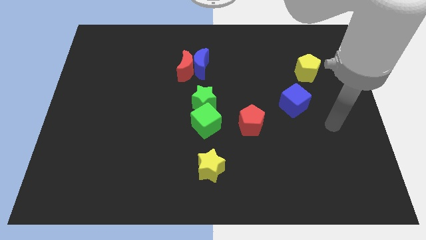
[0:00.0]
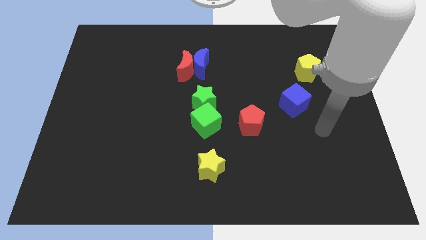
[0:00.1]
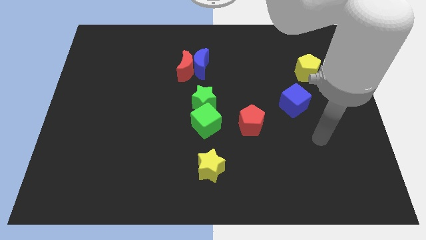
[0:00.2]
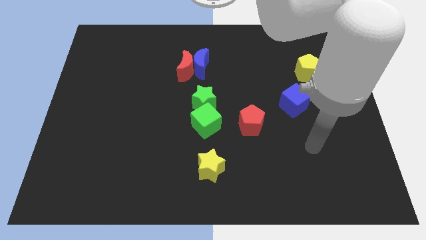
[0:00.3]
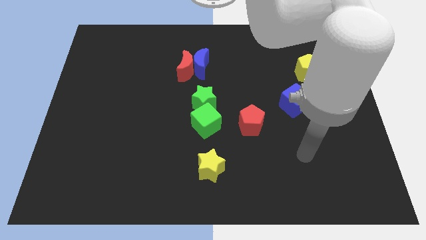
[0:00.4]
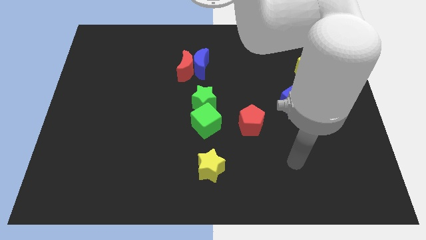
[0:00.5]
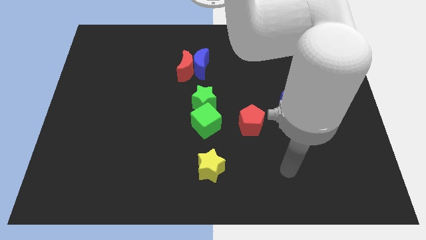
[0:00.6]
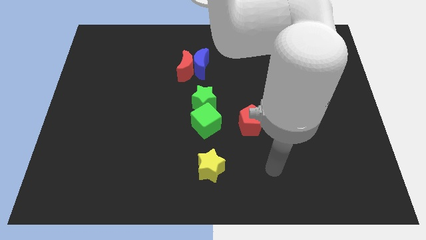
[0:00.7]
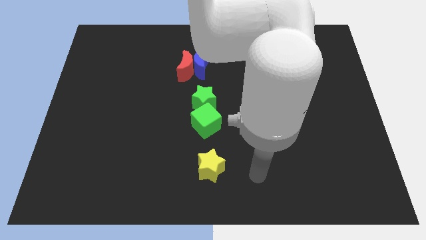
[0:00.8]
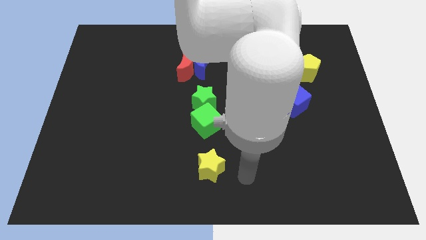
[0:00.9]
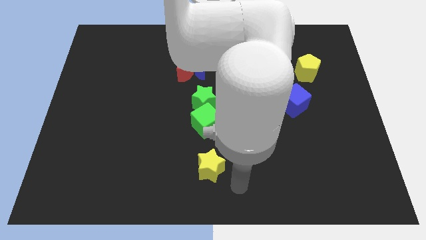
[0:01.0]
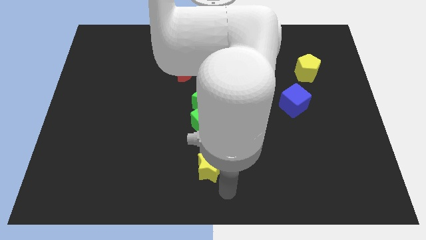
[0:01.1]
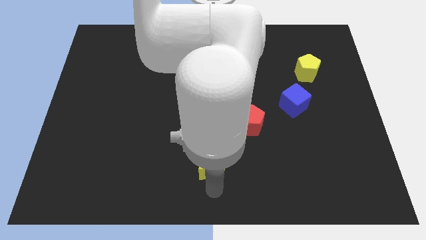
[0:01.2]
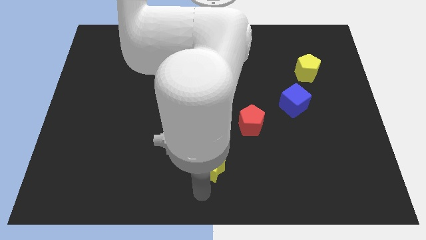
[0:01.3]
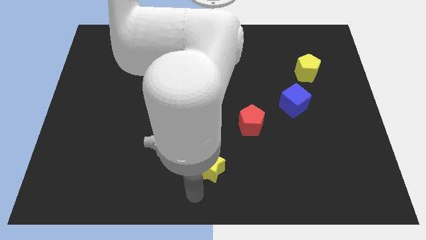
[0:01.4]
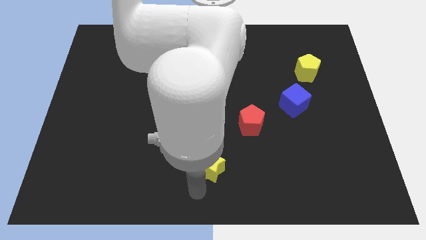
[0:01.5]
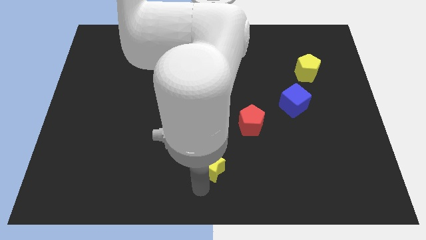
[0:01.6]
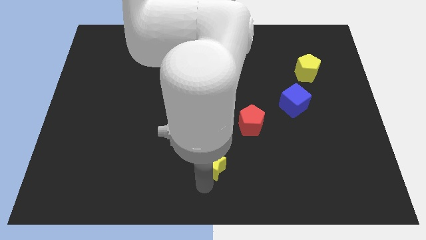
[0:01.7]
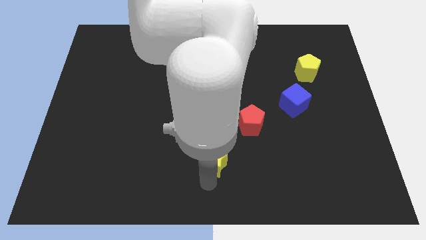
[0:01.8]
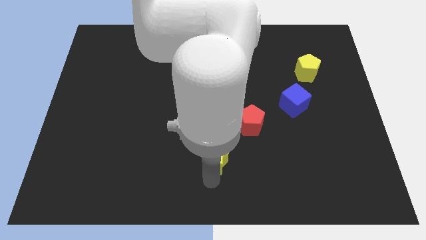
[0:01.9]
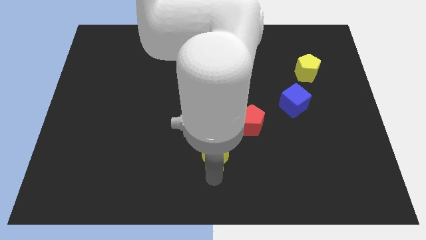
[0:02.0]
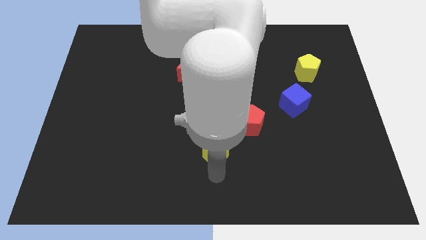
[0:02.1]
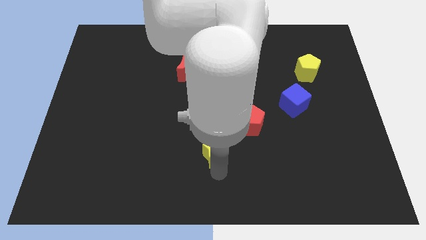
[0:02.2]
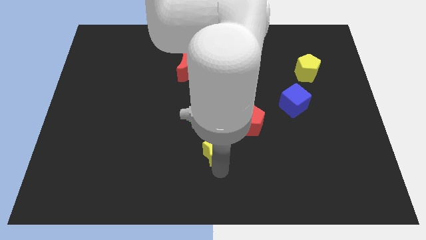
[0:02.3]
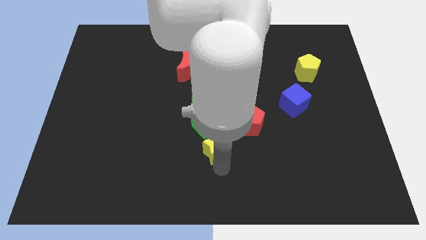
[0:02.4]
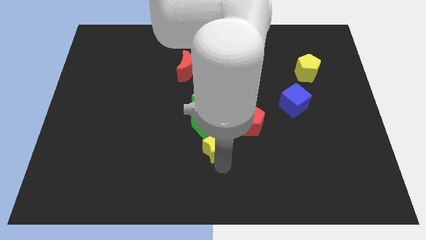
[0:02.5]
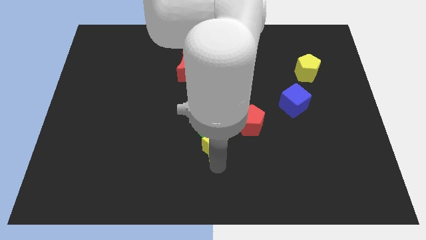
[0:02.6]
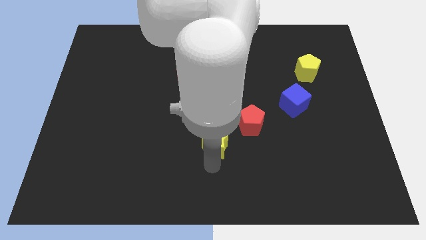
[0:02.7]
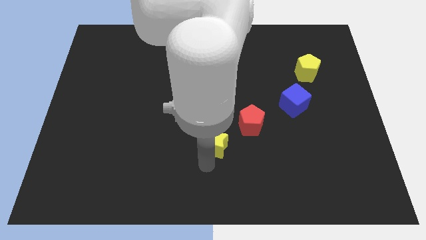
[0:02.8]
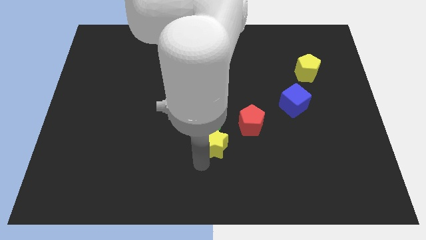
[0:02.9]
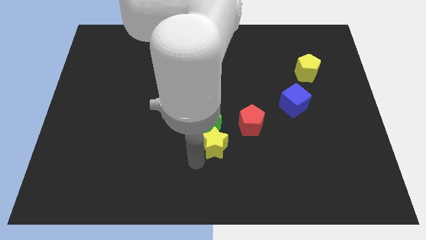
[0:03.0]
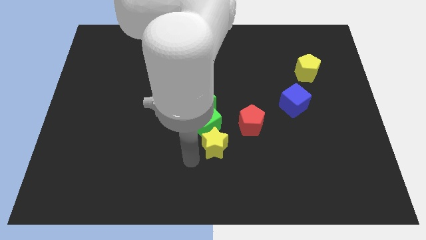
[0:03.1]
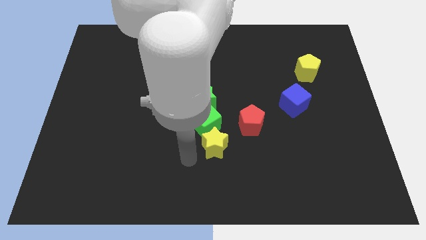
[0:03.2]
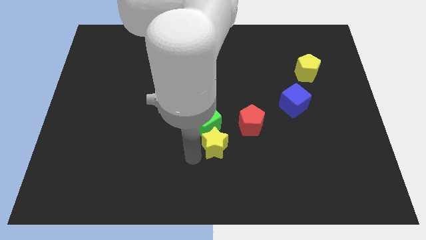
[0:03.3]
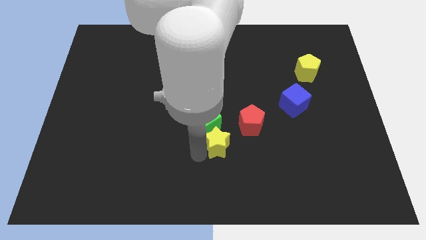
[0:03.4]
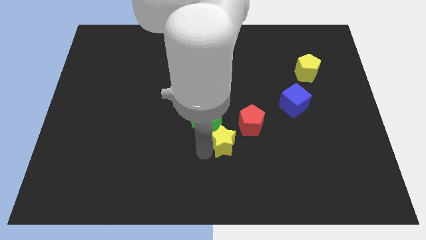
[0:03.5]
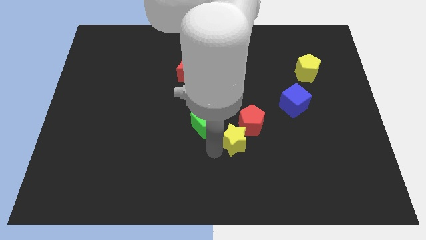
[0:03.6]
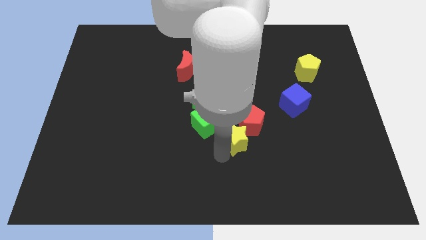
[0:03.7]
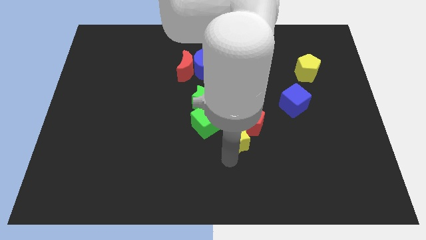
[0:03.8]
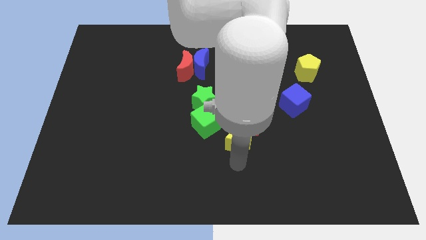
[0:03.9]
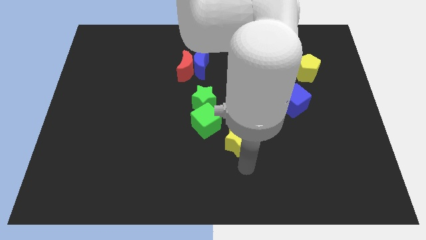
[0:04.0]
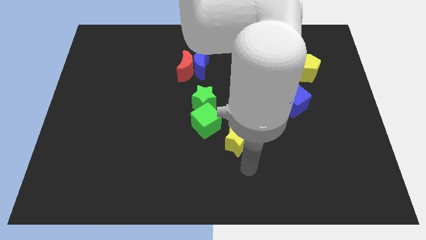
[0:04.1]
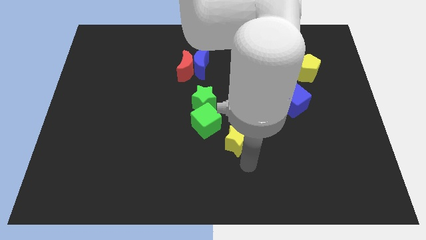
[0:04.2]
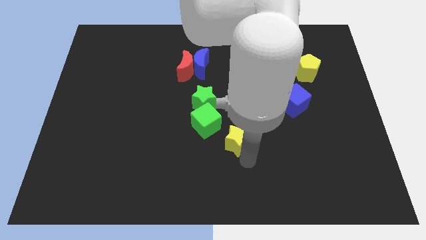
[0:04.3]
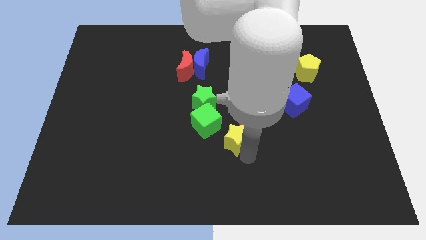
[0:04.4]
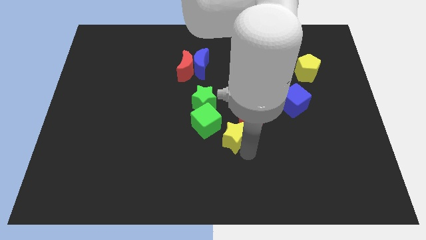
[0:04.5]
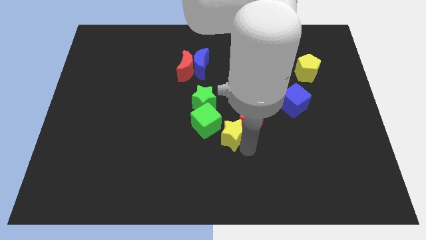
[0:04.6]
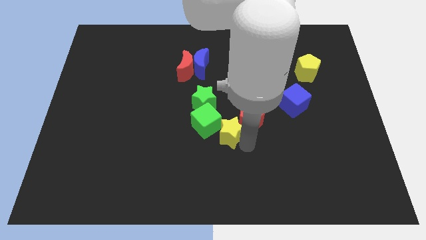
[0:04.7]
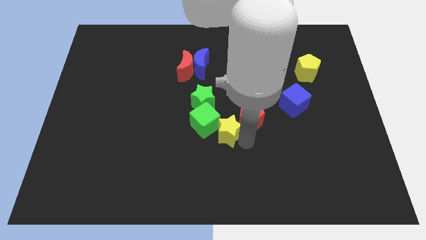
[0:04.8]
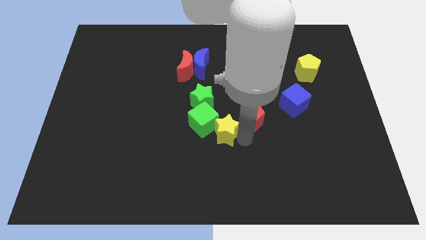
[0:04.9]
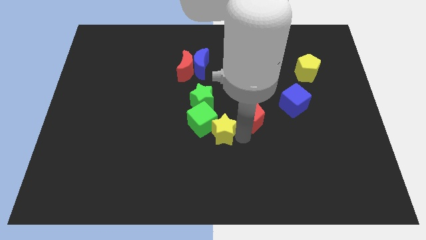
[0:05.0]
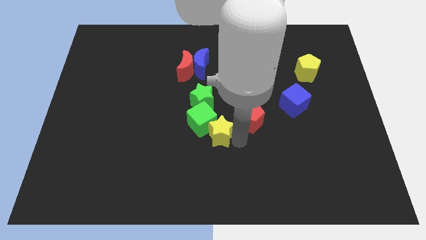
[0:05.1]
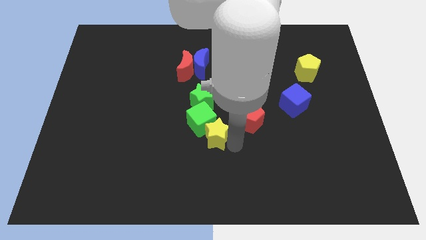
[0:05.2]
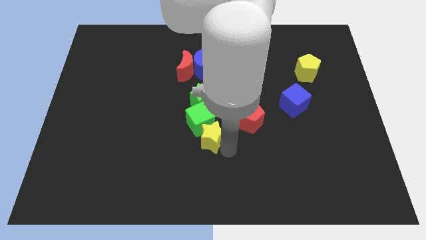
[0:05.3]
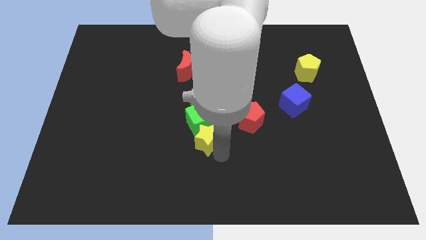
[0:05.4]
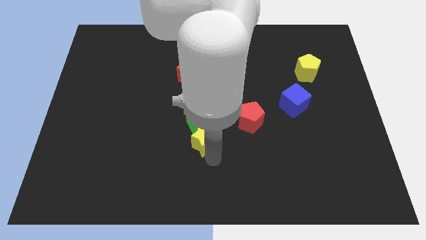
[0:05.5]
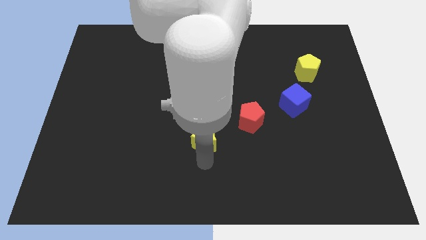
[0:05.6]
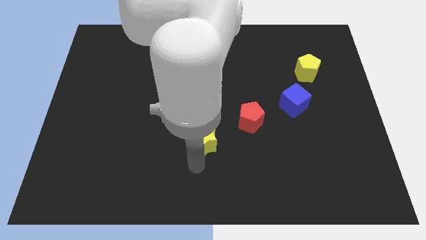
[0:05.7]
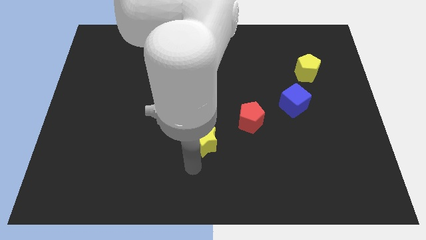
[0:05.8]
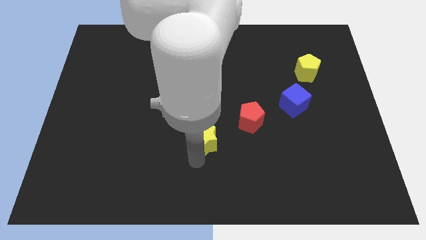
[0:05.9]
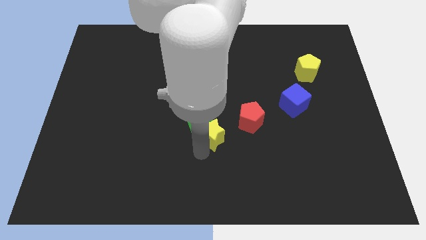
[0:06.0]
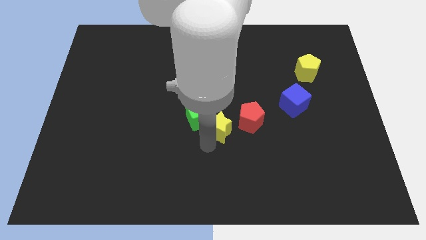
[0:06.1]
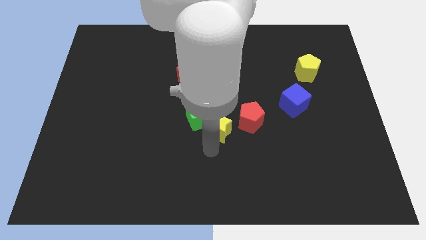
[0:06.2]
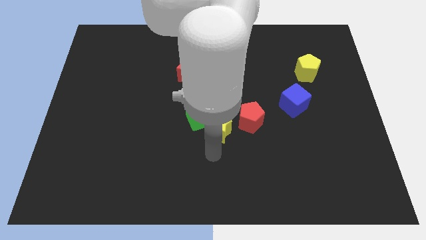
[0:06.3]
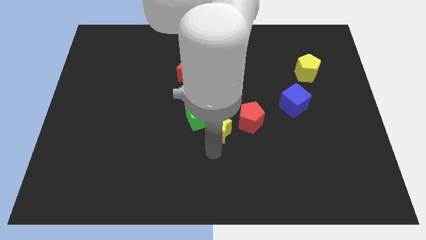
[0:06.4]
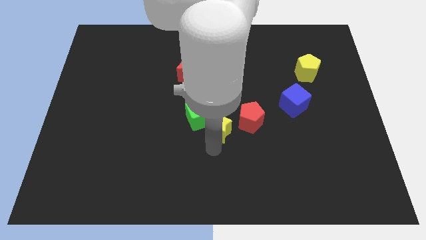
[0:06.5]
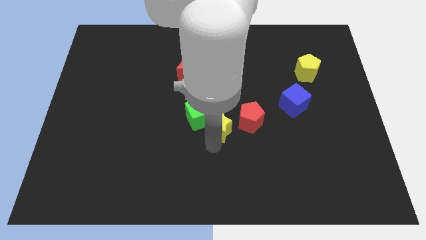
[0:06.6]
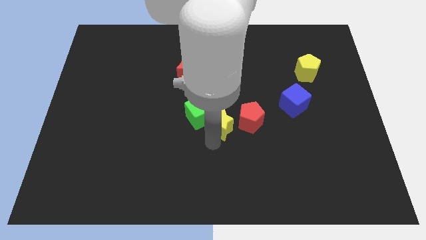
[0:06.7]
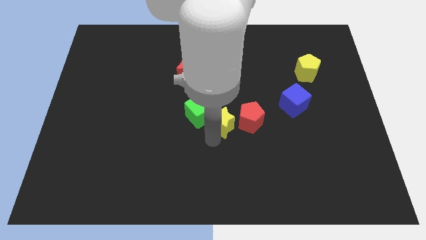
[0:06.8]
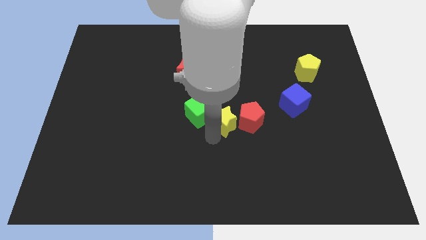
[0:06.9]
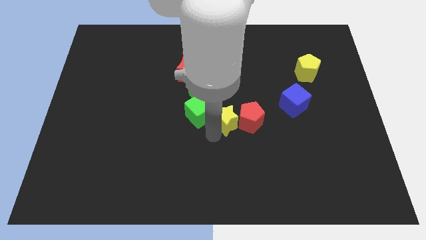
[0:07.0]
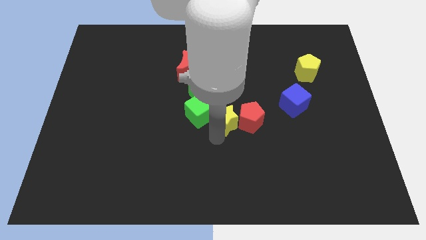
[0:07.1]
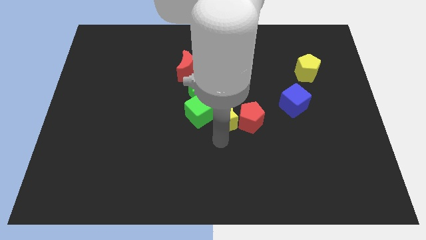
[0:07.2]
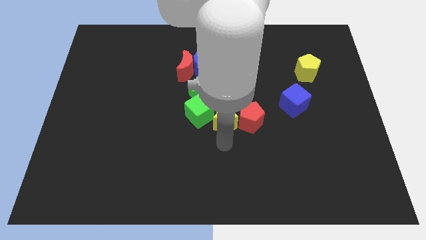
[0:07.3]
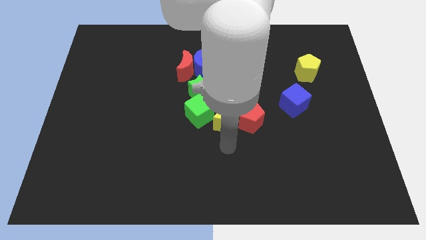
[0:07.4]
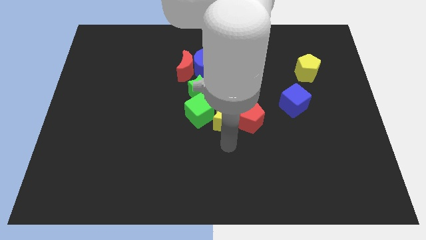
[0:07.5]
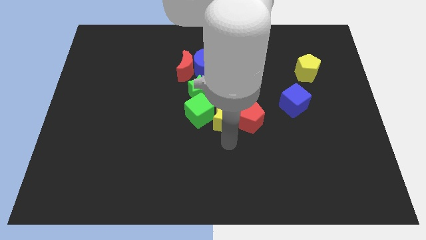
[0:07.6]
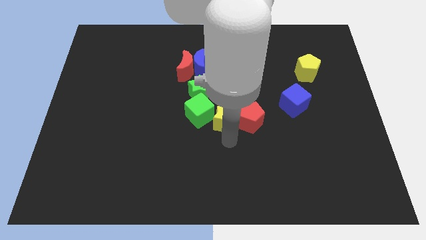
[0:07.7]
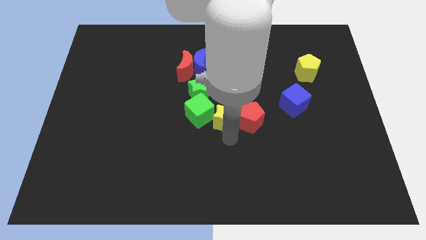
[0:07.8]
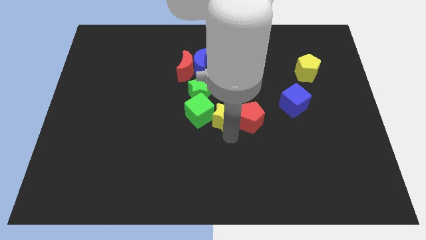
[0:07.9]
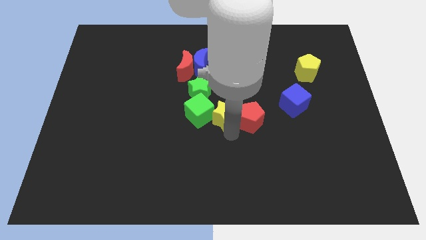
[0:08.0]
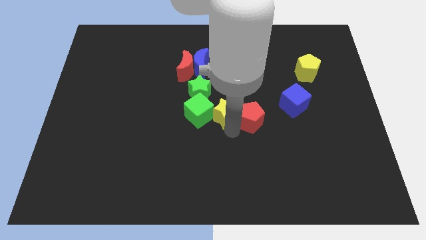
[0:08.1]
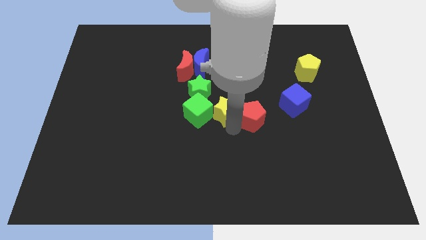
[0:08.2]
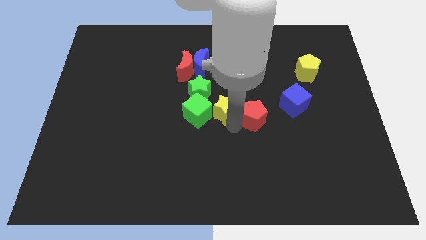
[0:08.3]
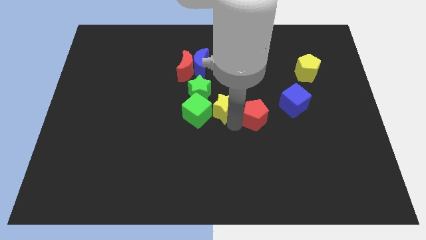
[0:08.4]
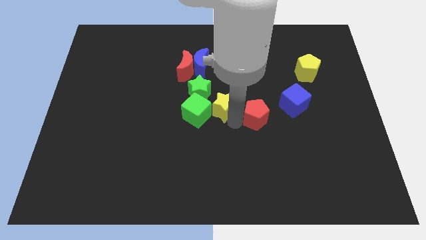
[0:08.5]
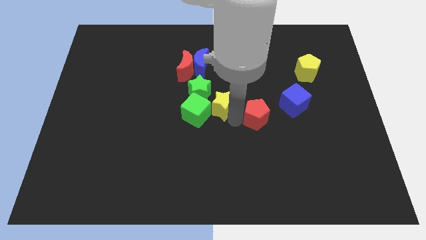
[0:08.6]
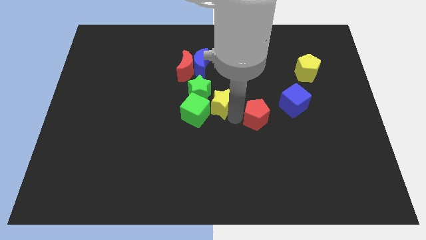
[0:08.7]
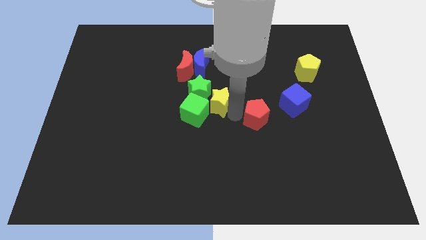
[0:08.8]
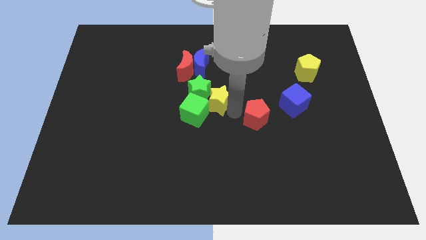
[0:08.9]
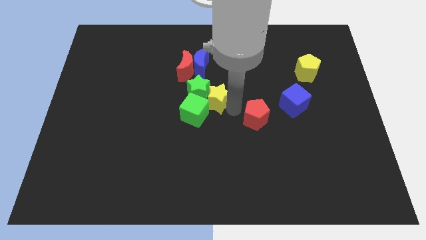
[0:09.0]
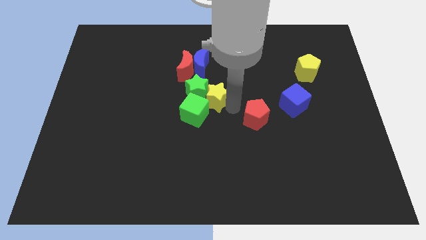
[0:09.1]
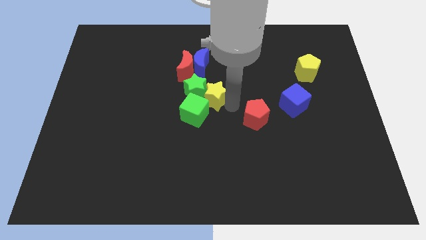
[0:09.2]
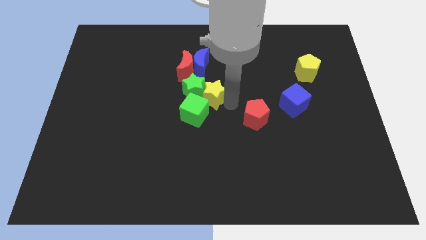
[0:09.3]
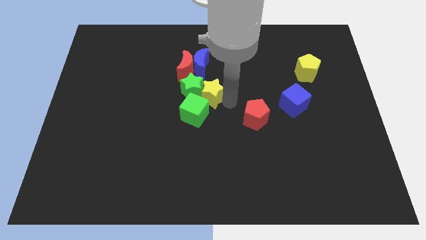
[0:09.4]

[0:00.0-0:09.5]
push the yellow star up
